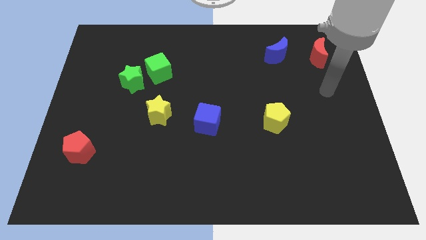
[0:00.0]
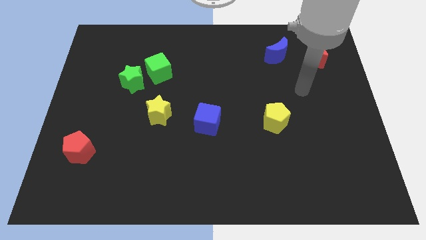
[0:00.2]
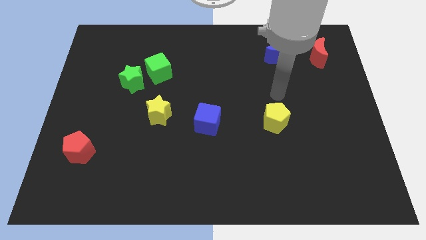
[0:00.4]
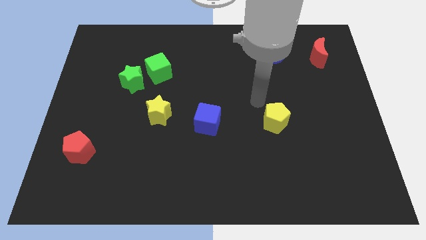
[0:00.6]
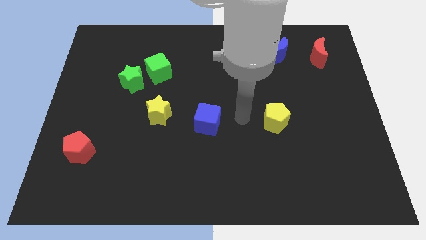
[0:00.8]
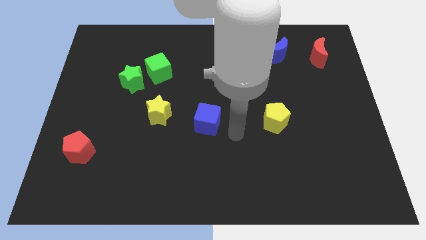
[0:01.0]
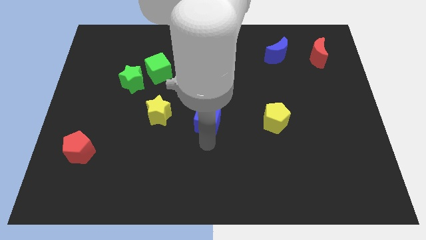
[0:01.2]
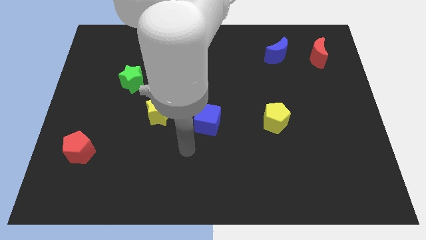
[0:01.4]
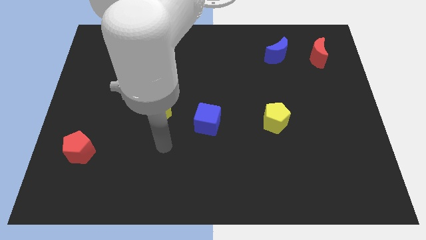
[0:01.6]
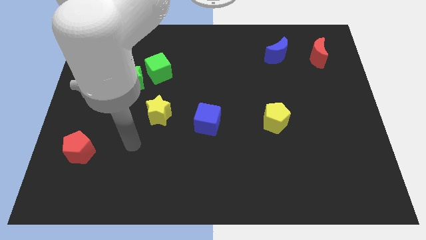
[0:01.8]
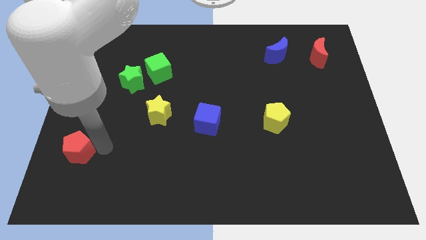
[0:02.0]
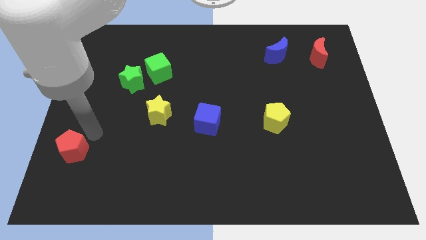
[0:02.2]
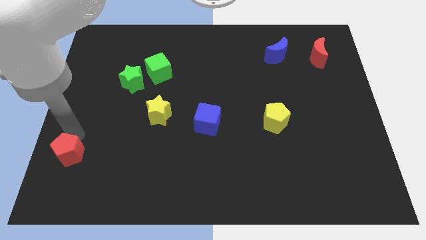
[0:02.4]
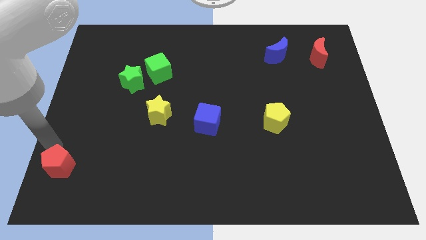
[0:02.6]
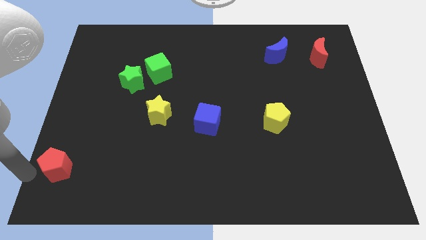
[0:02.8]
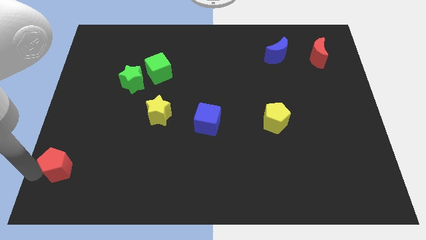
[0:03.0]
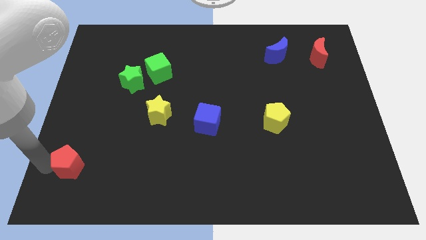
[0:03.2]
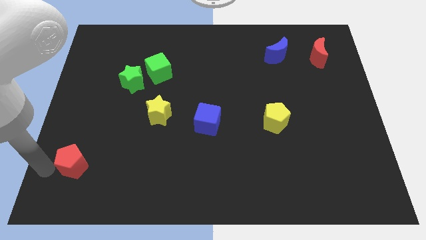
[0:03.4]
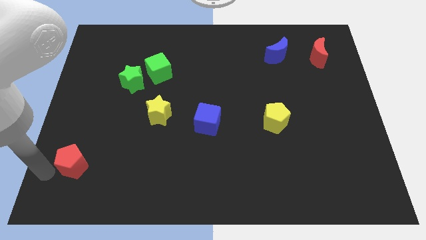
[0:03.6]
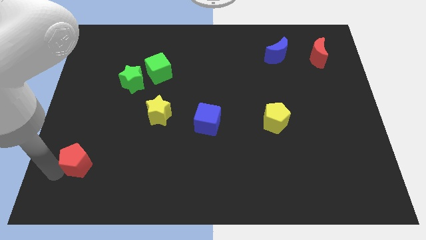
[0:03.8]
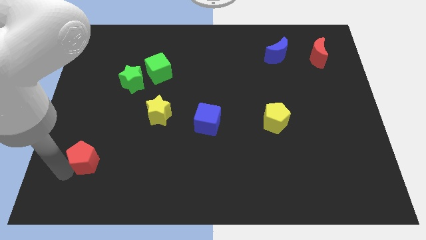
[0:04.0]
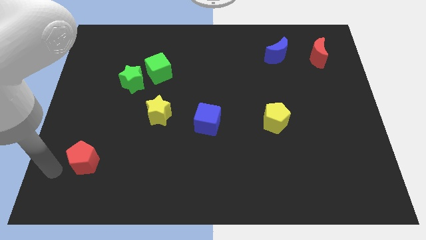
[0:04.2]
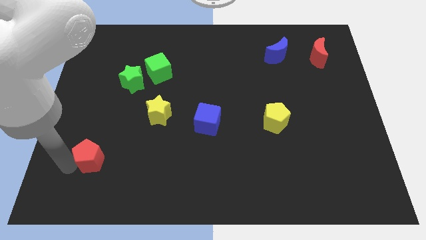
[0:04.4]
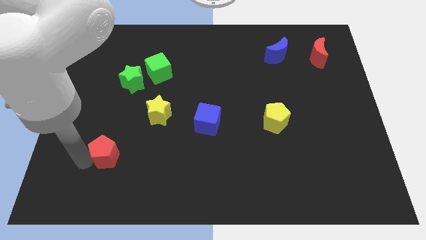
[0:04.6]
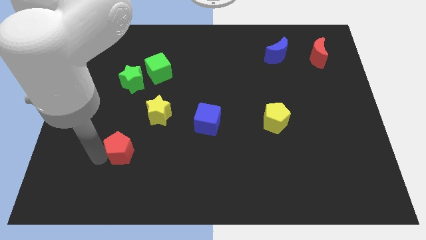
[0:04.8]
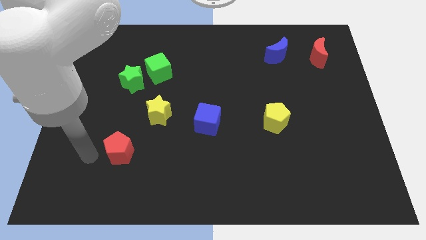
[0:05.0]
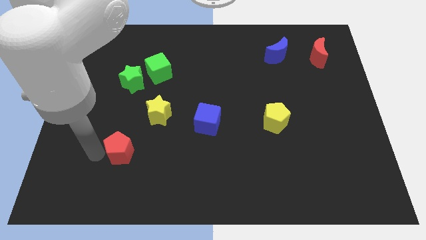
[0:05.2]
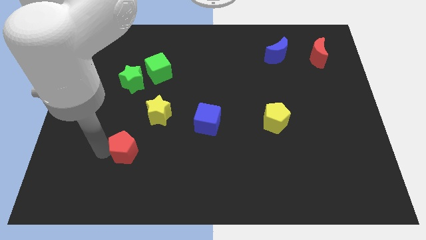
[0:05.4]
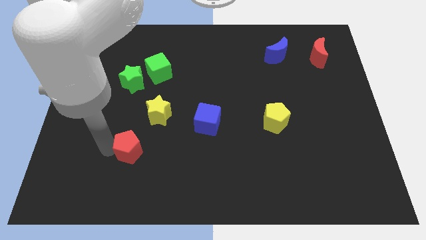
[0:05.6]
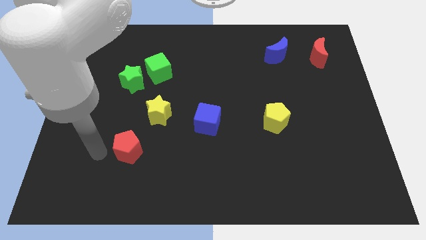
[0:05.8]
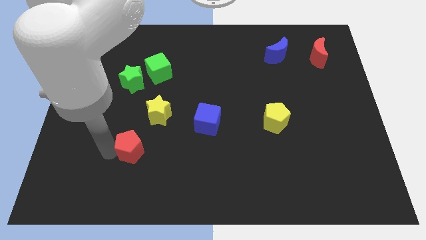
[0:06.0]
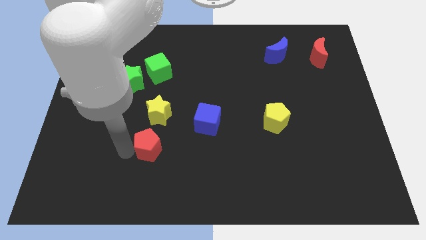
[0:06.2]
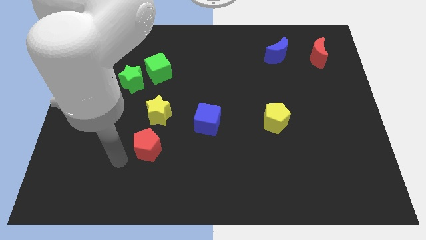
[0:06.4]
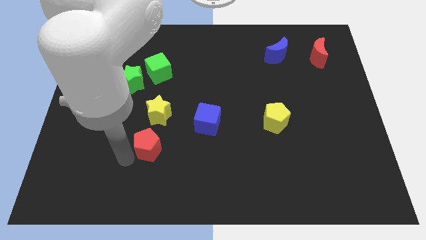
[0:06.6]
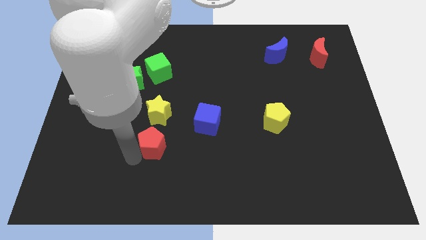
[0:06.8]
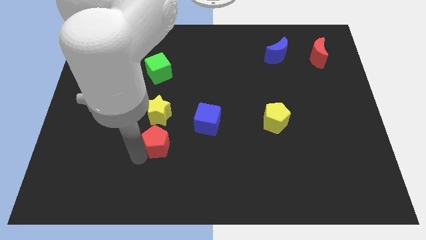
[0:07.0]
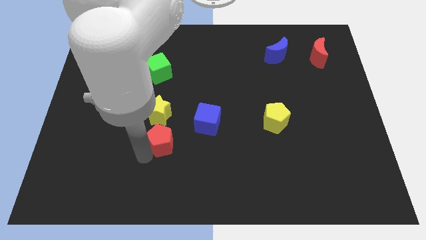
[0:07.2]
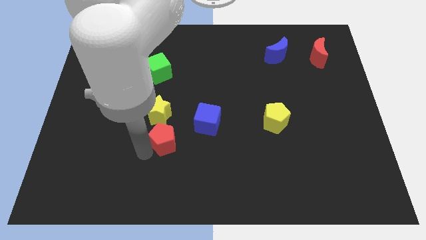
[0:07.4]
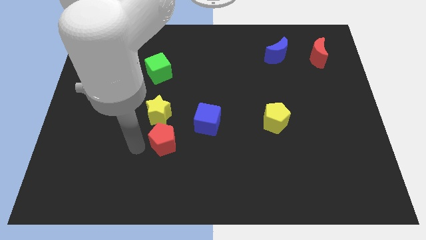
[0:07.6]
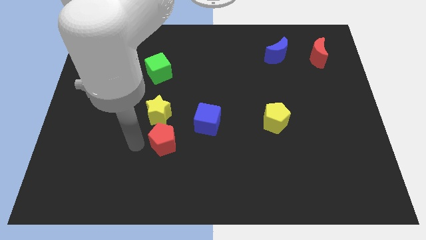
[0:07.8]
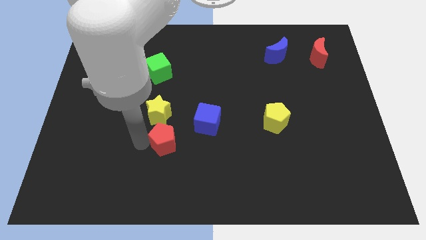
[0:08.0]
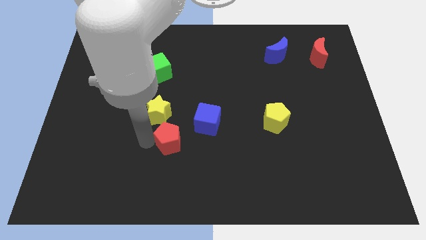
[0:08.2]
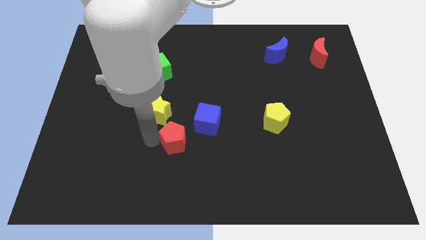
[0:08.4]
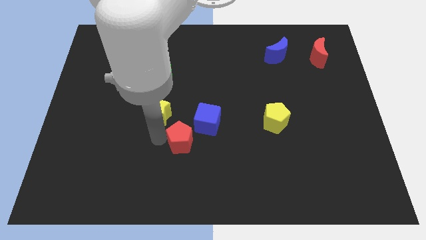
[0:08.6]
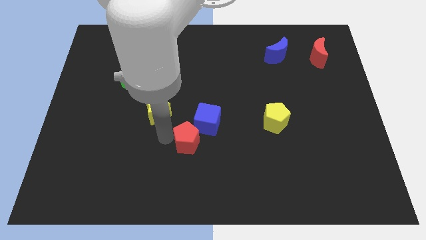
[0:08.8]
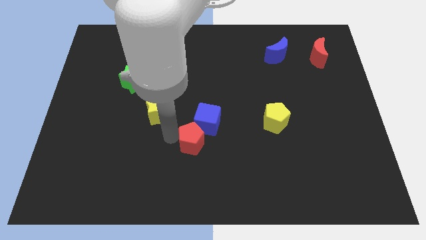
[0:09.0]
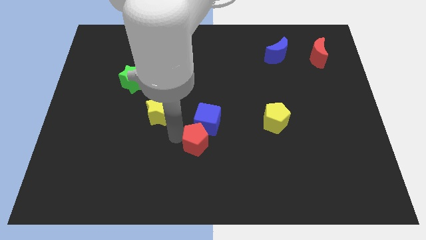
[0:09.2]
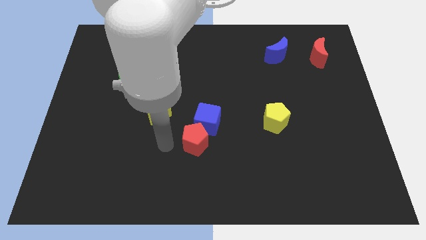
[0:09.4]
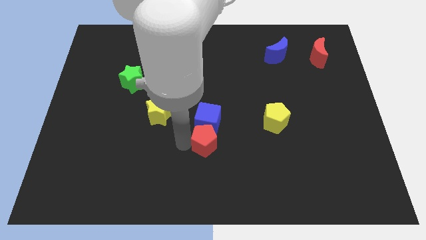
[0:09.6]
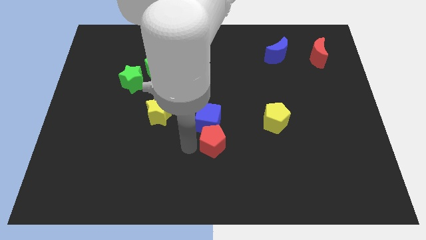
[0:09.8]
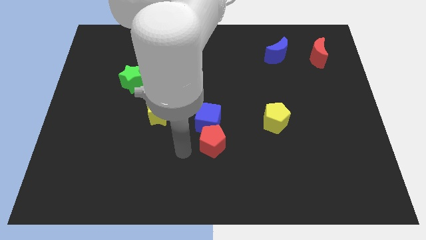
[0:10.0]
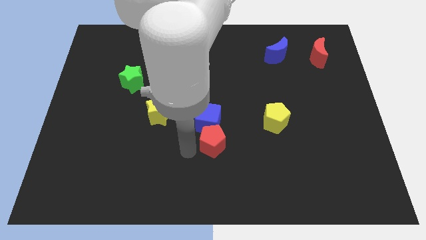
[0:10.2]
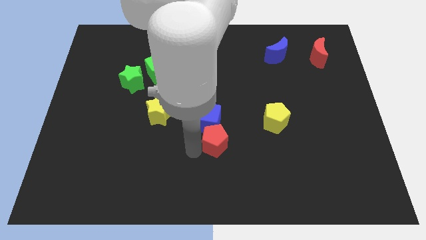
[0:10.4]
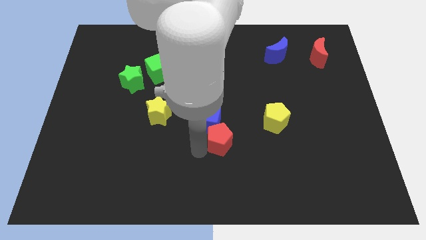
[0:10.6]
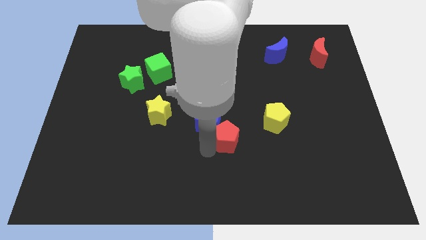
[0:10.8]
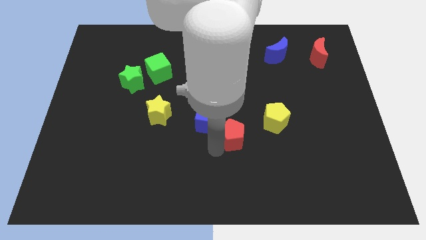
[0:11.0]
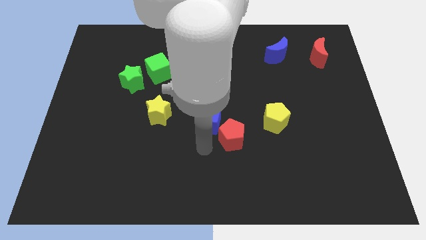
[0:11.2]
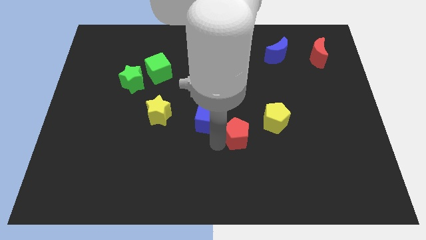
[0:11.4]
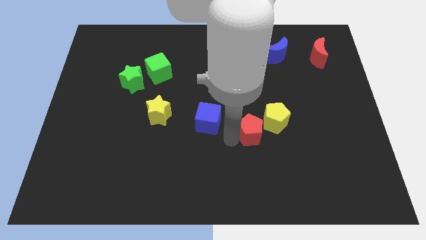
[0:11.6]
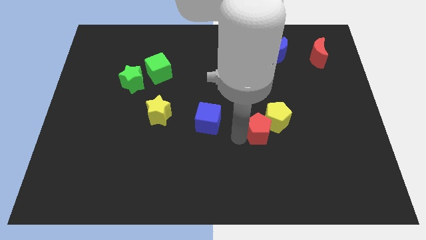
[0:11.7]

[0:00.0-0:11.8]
slide the red pentagon close to the yellow pentagon

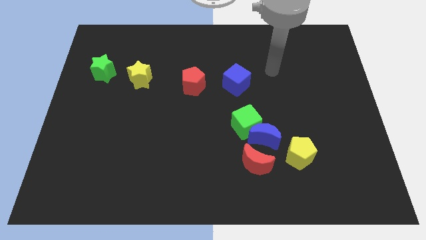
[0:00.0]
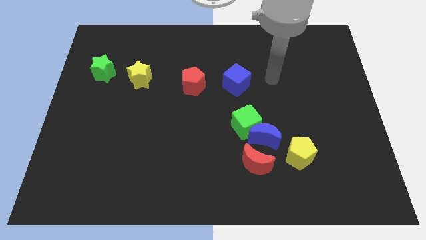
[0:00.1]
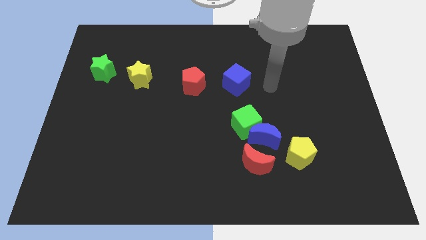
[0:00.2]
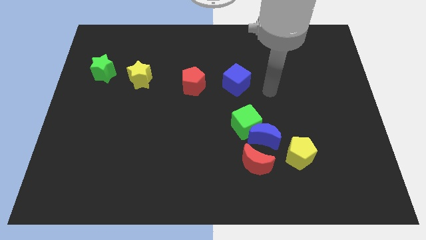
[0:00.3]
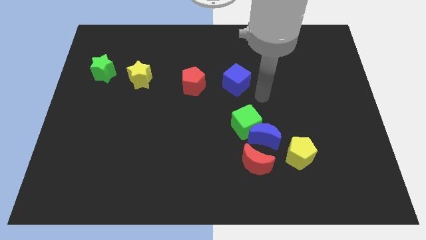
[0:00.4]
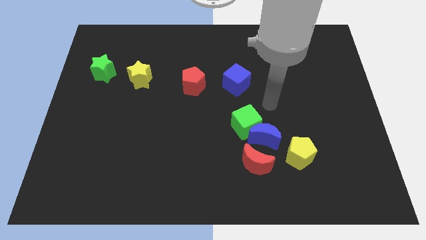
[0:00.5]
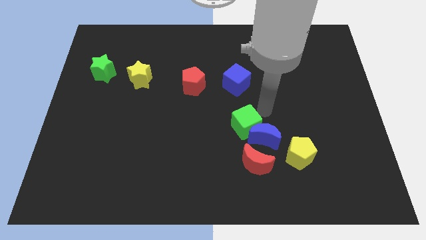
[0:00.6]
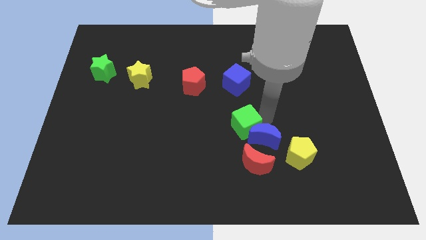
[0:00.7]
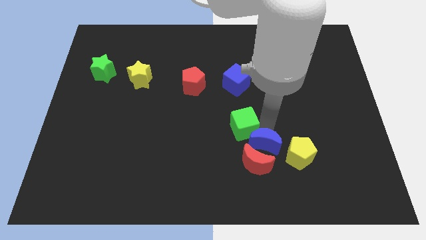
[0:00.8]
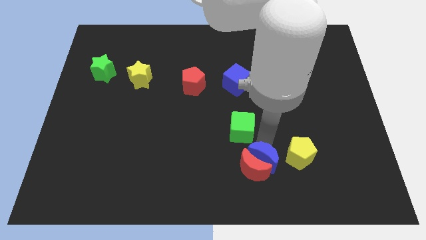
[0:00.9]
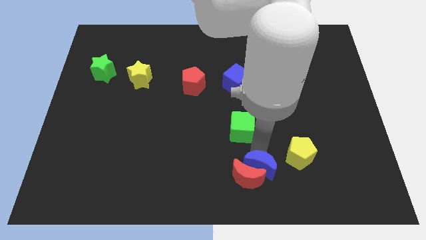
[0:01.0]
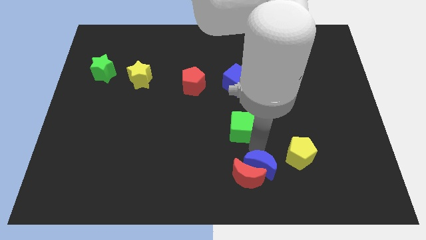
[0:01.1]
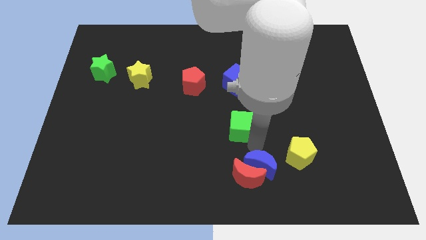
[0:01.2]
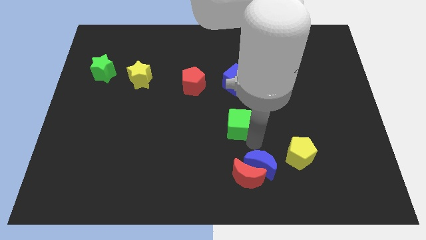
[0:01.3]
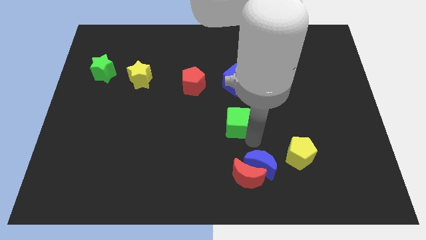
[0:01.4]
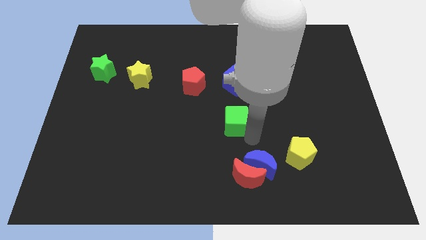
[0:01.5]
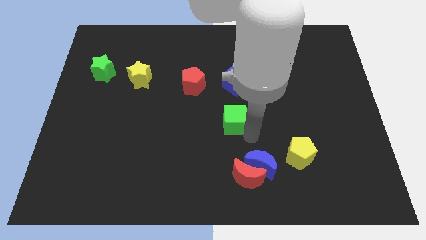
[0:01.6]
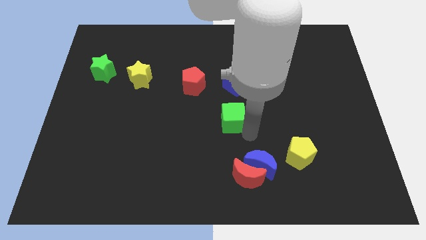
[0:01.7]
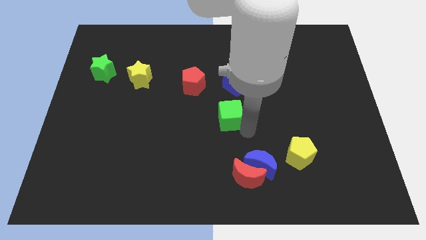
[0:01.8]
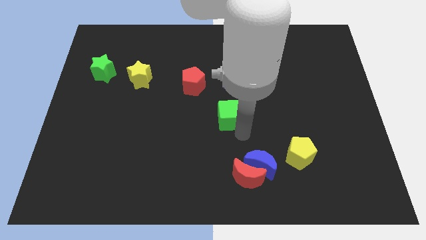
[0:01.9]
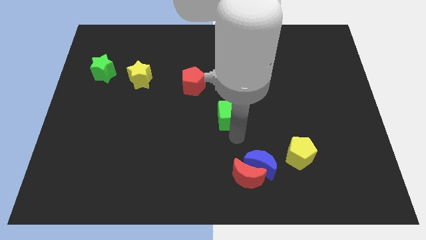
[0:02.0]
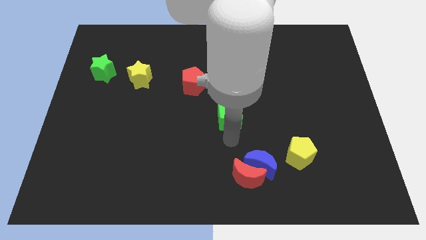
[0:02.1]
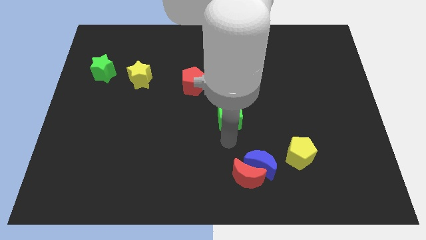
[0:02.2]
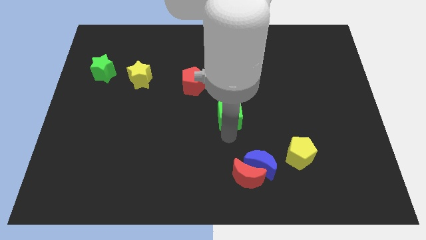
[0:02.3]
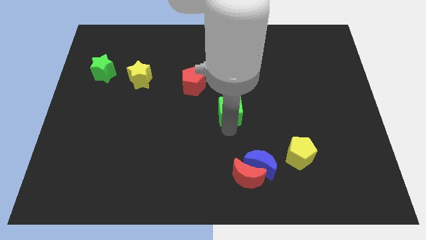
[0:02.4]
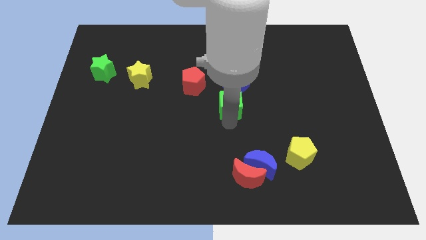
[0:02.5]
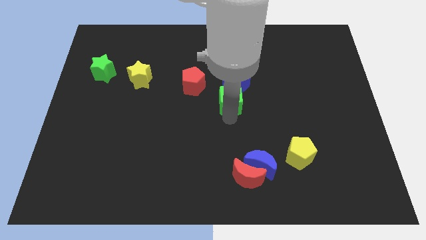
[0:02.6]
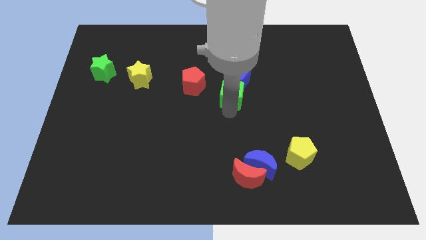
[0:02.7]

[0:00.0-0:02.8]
slide the green cube close to the blue cube
